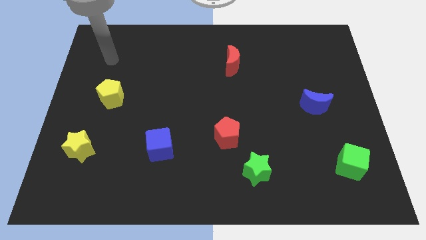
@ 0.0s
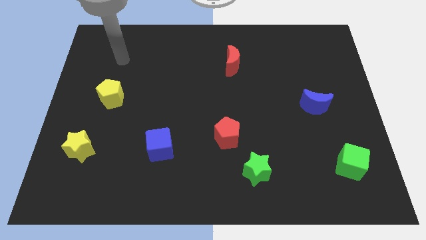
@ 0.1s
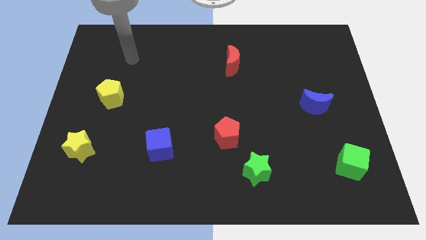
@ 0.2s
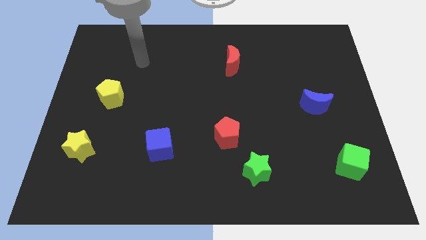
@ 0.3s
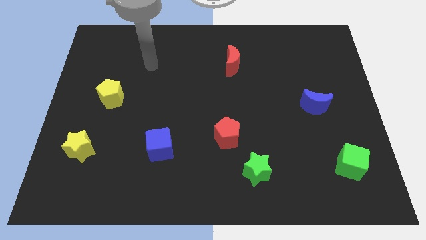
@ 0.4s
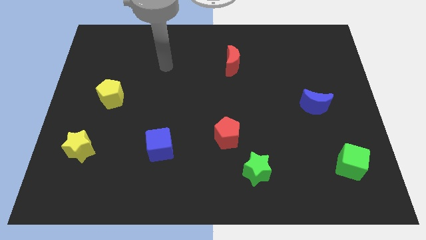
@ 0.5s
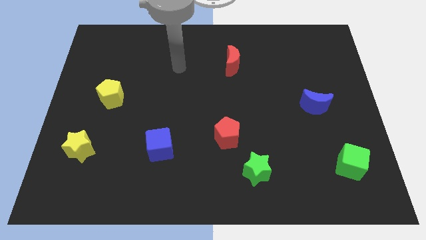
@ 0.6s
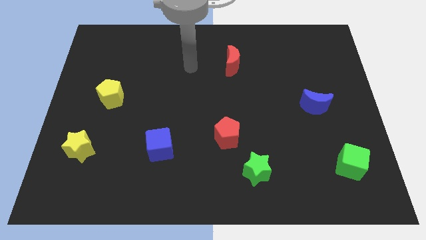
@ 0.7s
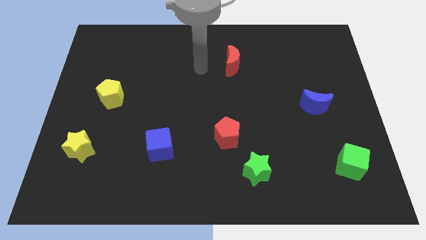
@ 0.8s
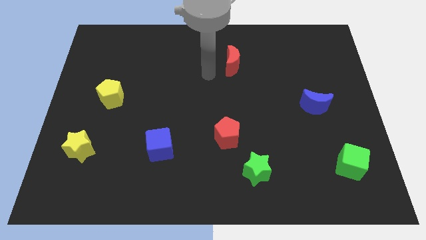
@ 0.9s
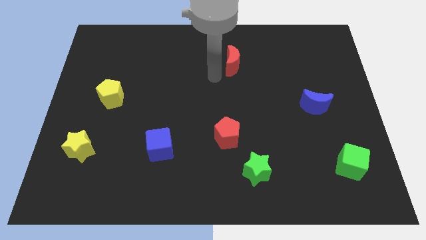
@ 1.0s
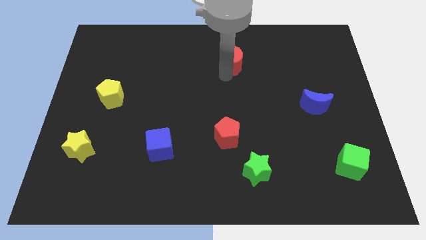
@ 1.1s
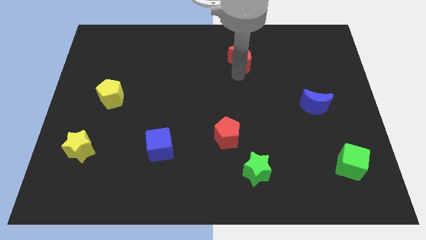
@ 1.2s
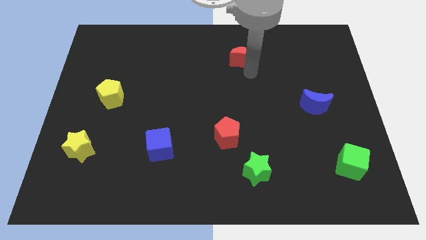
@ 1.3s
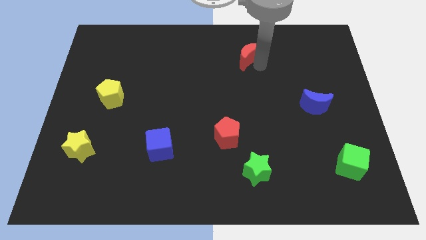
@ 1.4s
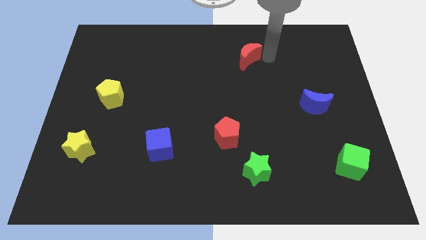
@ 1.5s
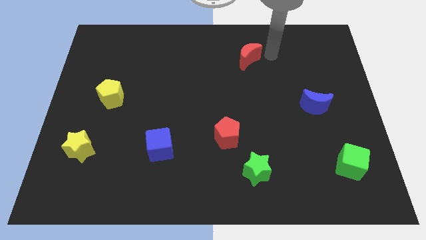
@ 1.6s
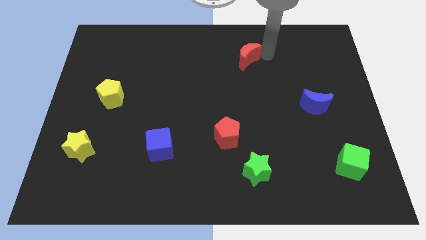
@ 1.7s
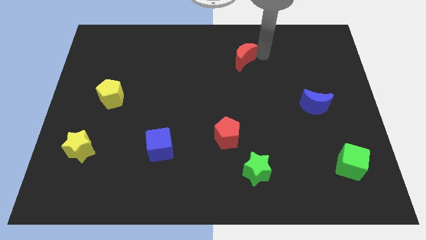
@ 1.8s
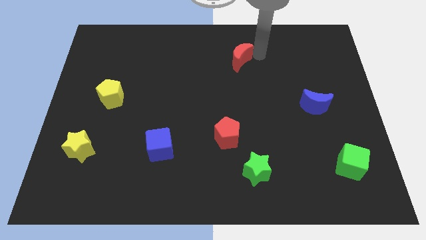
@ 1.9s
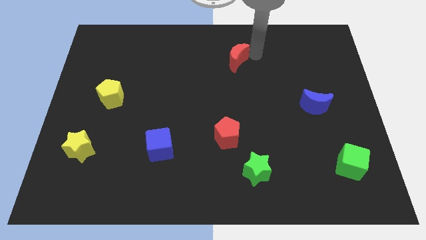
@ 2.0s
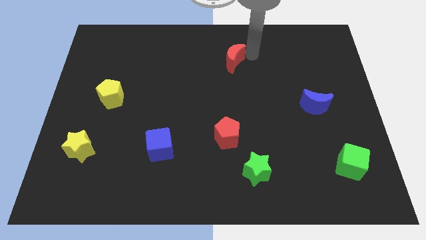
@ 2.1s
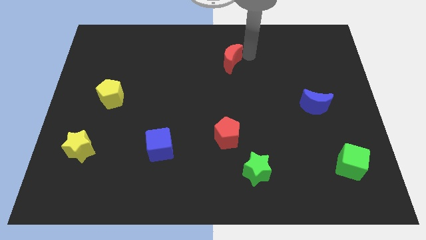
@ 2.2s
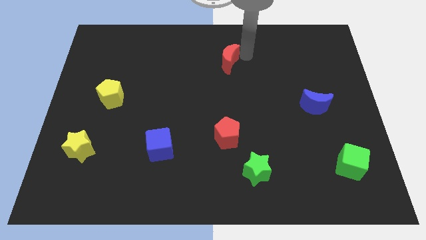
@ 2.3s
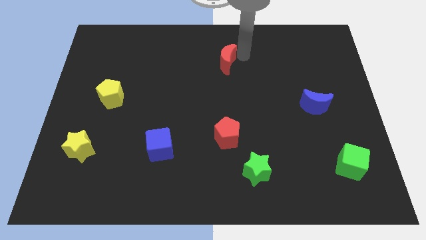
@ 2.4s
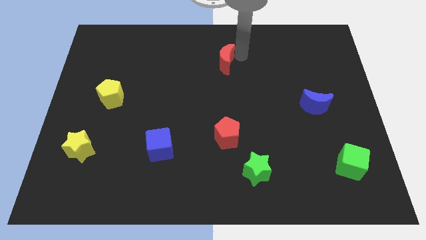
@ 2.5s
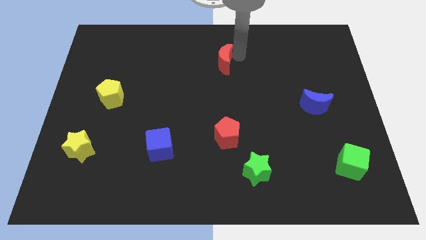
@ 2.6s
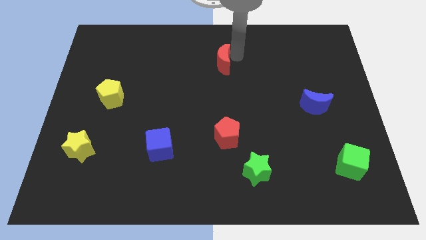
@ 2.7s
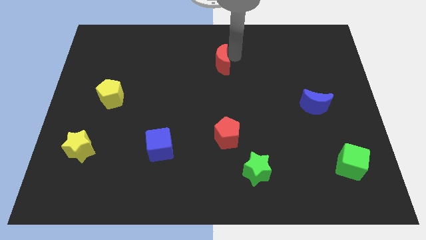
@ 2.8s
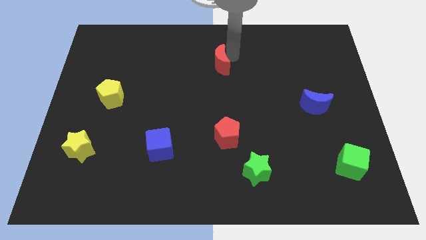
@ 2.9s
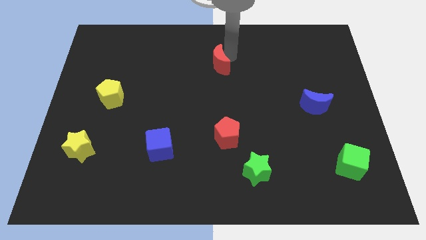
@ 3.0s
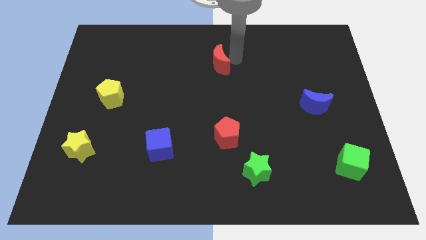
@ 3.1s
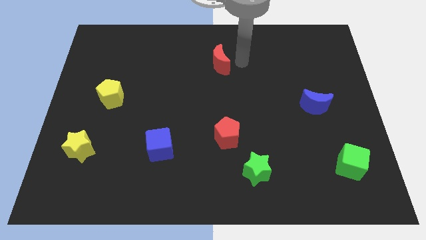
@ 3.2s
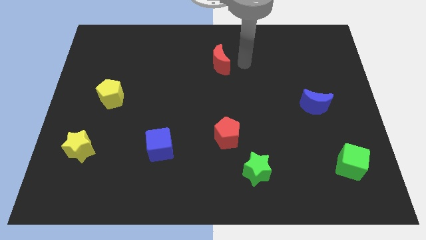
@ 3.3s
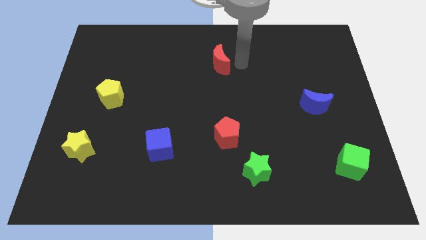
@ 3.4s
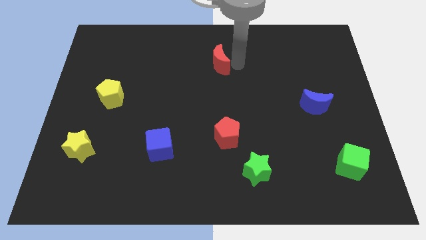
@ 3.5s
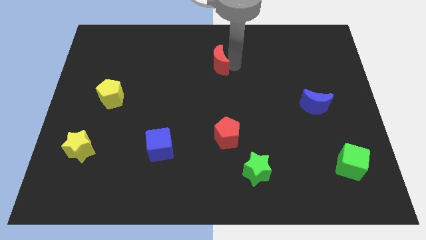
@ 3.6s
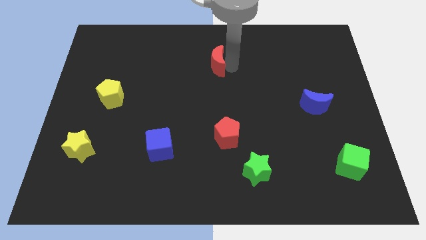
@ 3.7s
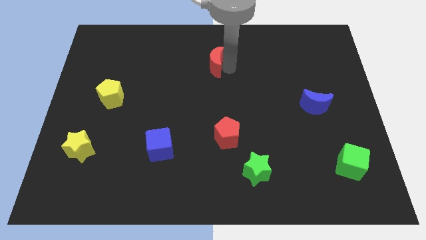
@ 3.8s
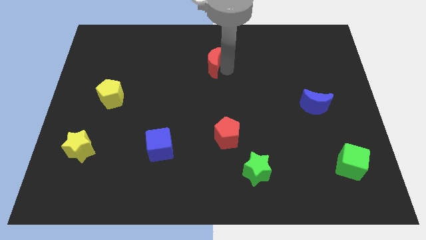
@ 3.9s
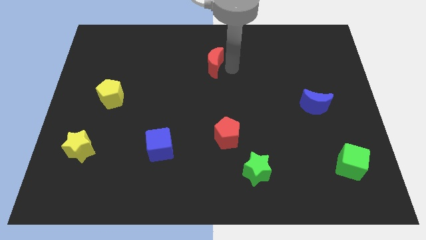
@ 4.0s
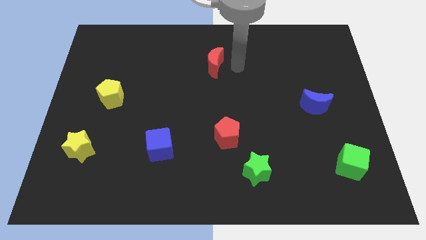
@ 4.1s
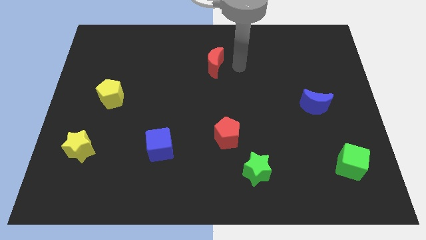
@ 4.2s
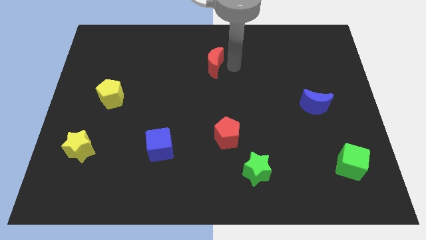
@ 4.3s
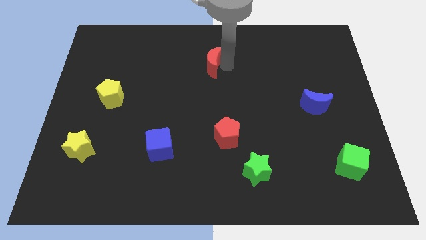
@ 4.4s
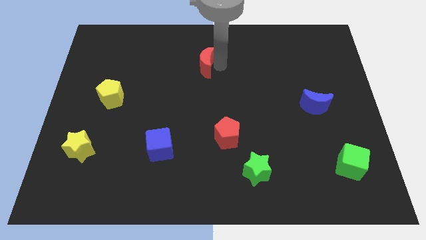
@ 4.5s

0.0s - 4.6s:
slightly push the red moon to the left

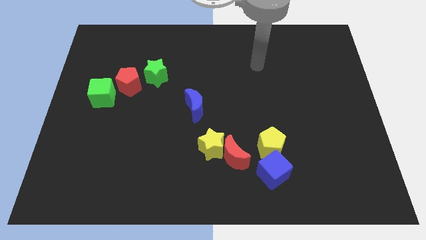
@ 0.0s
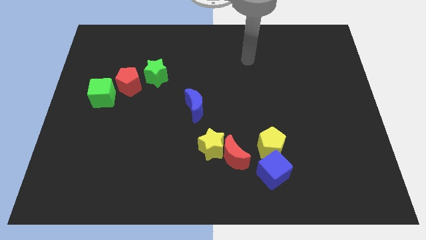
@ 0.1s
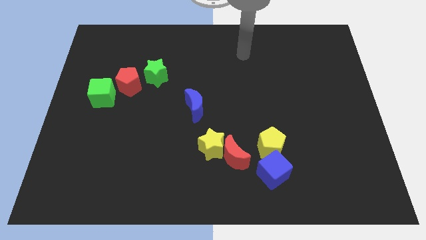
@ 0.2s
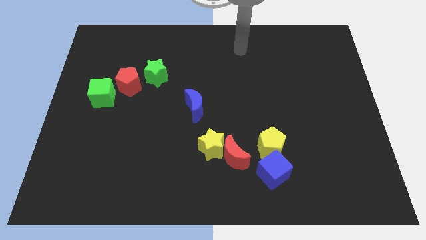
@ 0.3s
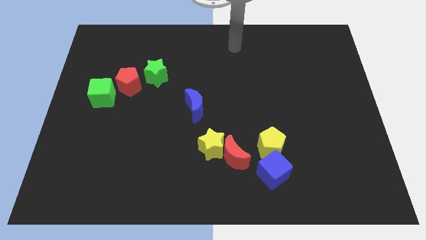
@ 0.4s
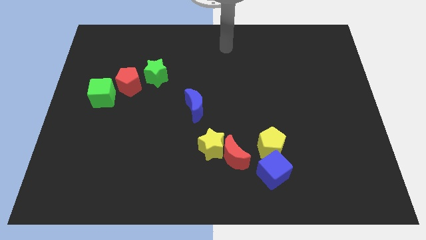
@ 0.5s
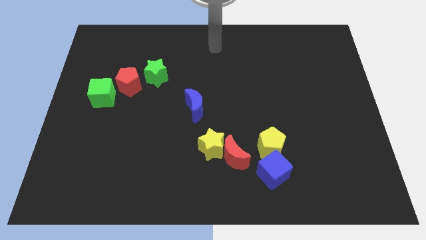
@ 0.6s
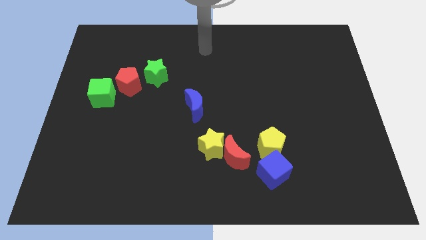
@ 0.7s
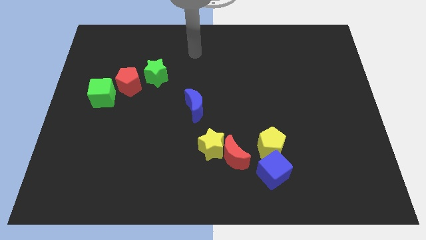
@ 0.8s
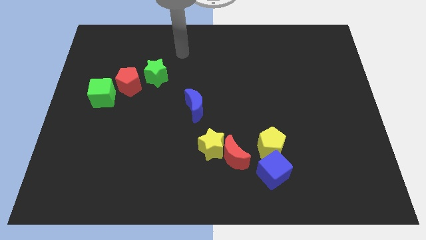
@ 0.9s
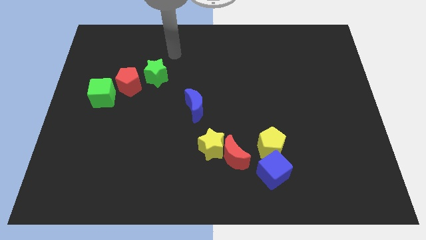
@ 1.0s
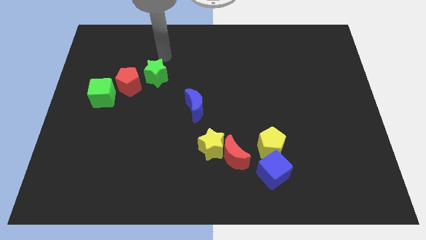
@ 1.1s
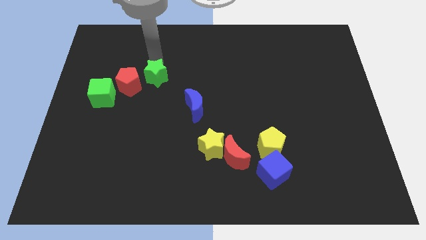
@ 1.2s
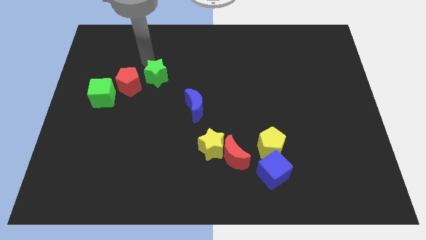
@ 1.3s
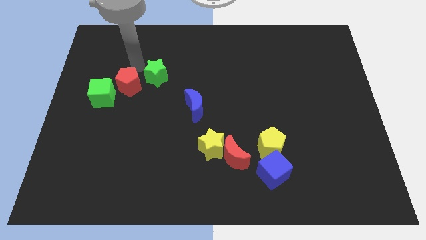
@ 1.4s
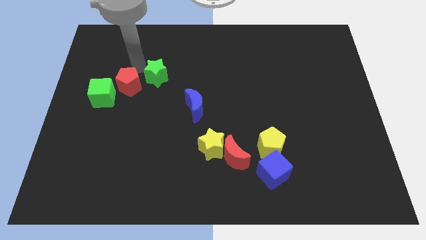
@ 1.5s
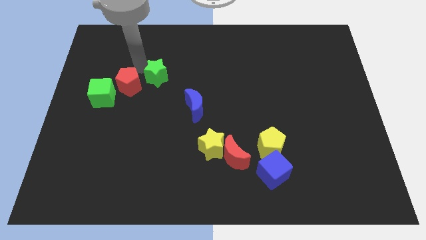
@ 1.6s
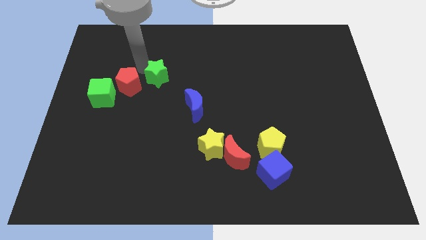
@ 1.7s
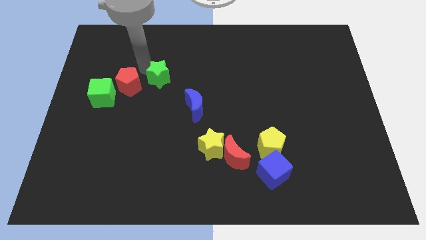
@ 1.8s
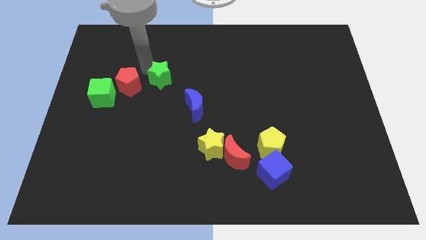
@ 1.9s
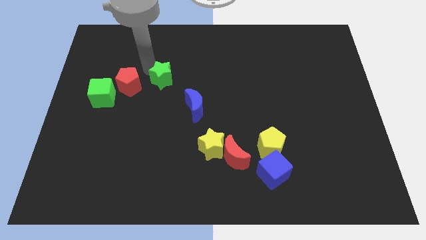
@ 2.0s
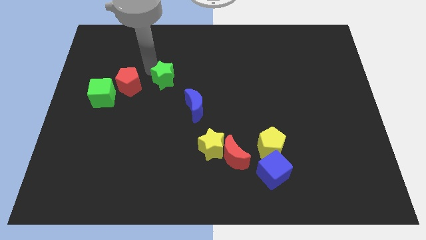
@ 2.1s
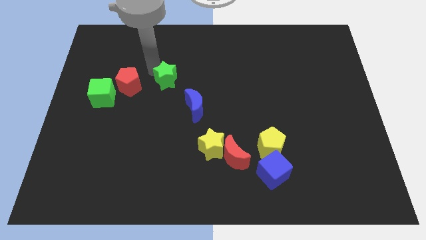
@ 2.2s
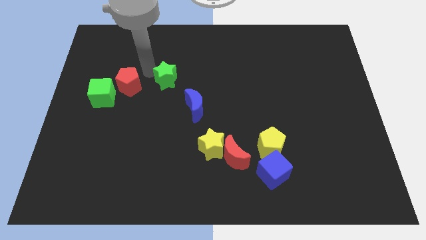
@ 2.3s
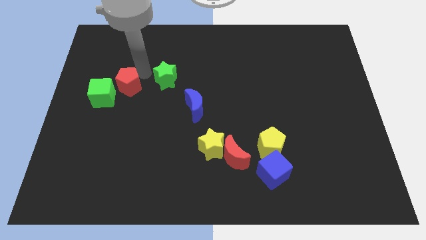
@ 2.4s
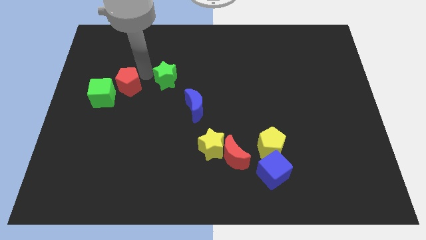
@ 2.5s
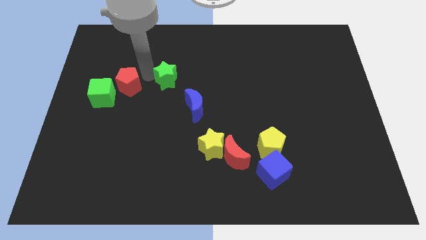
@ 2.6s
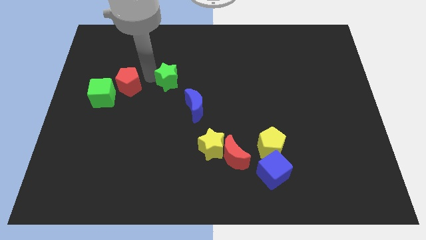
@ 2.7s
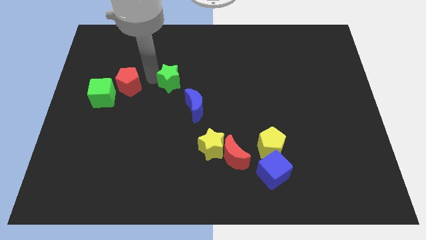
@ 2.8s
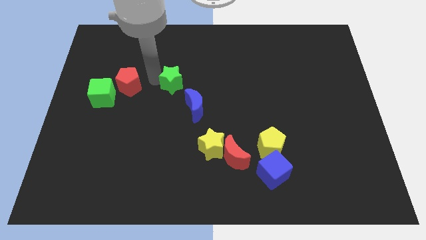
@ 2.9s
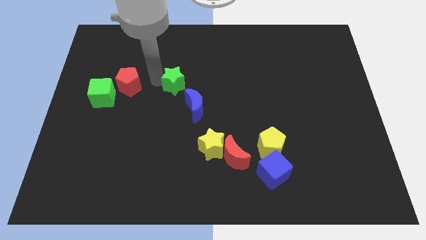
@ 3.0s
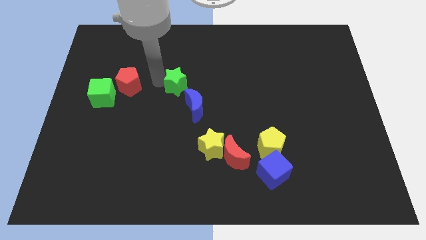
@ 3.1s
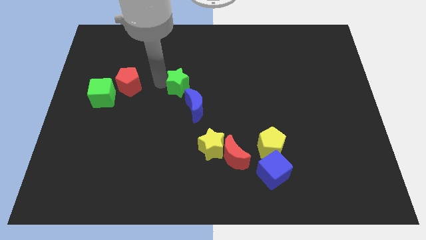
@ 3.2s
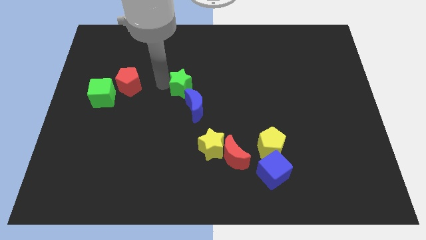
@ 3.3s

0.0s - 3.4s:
push the green star down and then right a bit

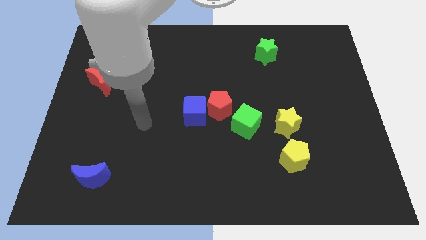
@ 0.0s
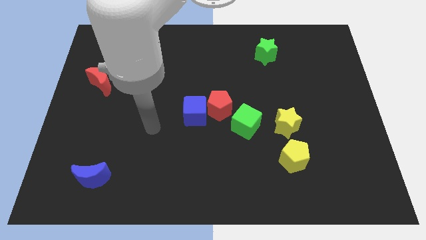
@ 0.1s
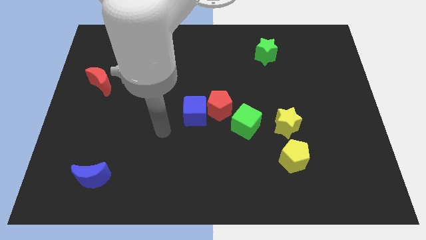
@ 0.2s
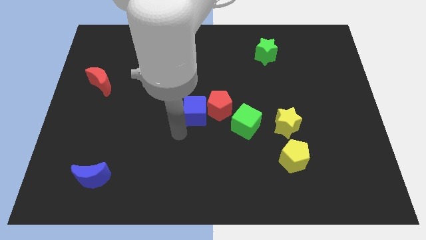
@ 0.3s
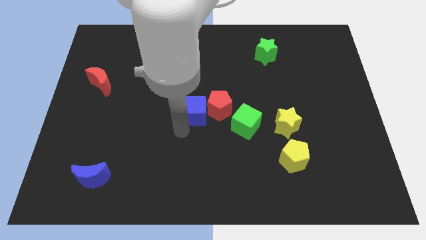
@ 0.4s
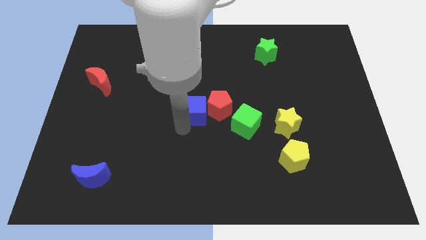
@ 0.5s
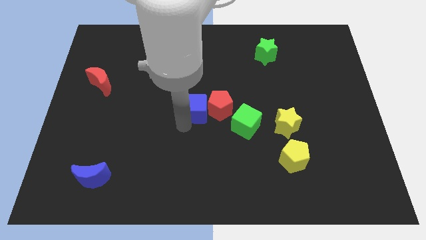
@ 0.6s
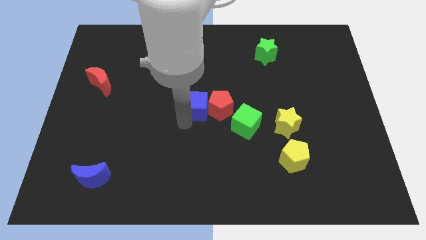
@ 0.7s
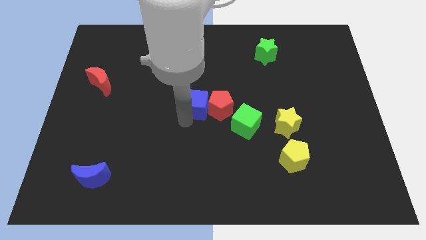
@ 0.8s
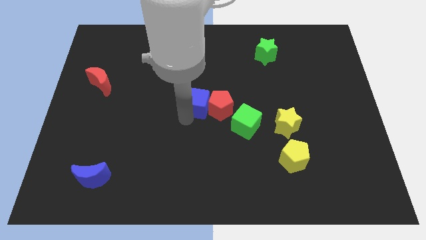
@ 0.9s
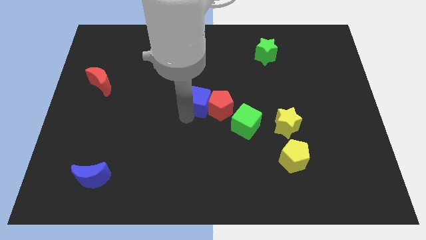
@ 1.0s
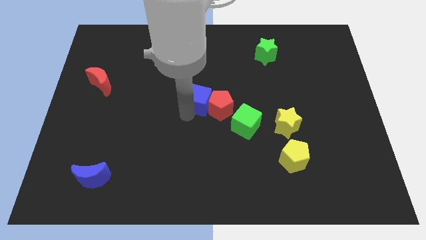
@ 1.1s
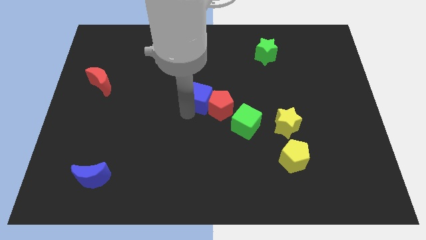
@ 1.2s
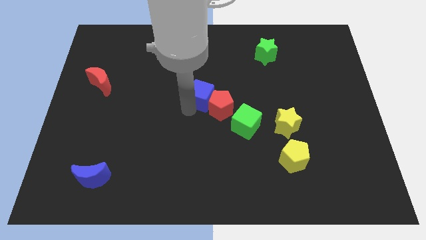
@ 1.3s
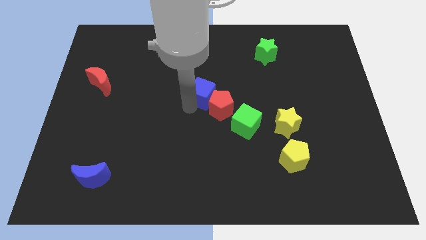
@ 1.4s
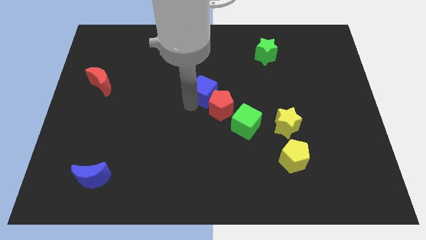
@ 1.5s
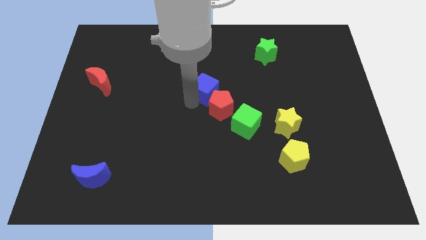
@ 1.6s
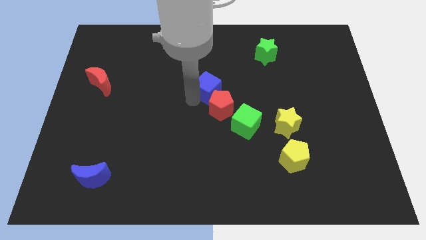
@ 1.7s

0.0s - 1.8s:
slightly push the blue cube upwards and right diagonally
